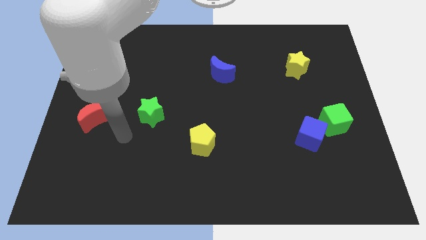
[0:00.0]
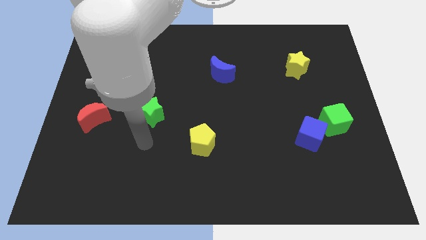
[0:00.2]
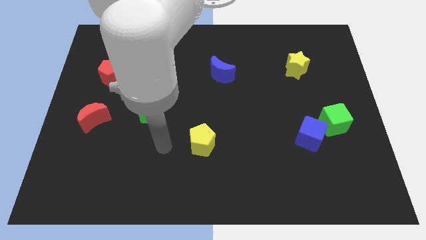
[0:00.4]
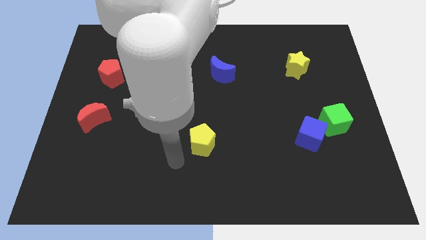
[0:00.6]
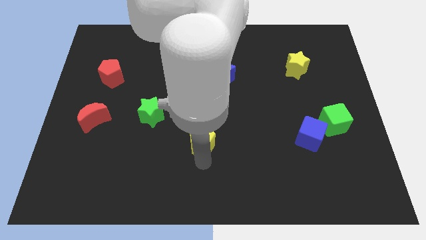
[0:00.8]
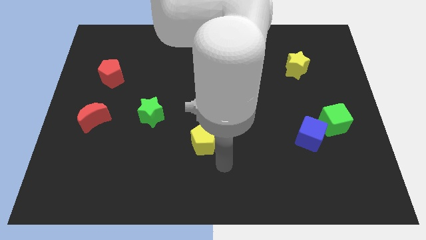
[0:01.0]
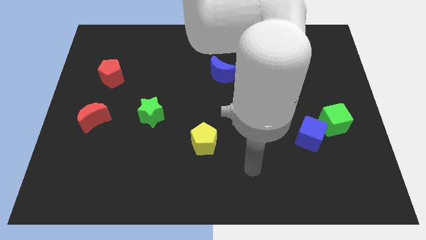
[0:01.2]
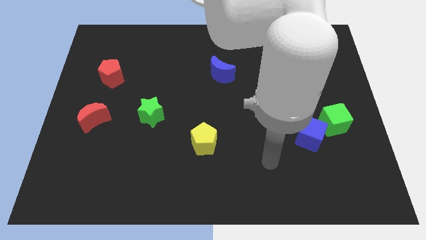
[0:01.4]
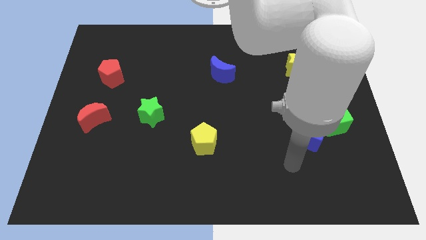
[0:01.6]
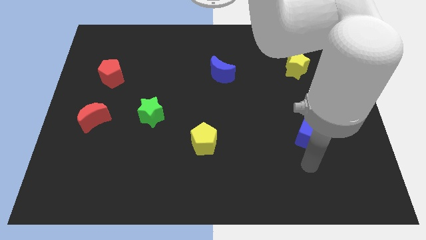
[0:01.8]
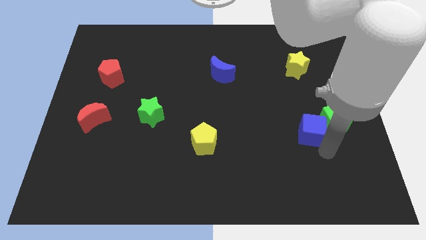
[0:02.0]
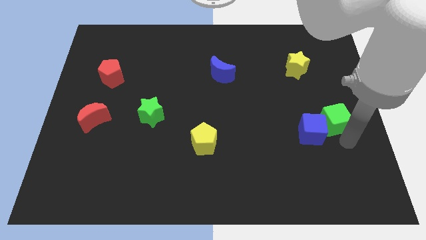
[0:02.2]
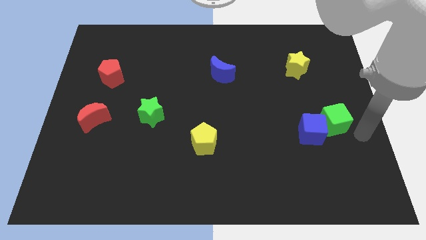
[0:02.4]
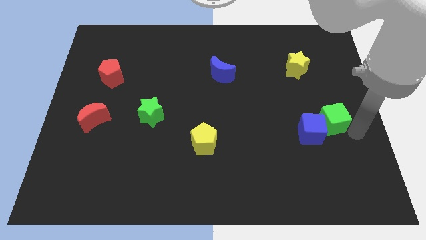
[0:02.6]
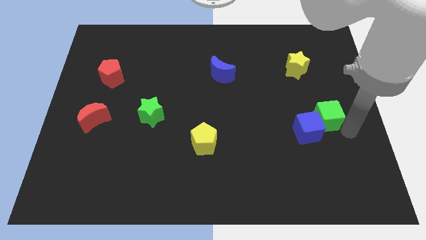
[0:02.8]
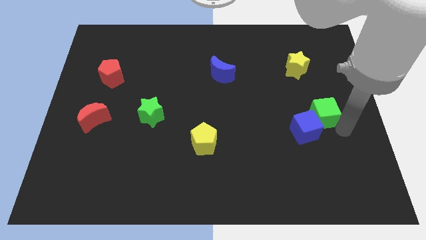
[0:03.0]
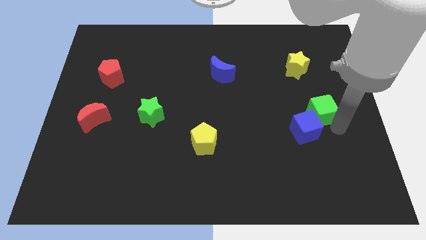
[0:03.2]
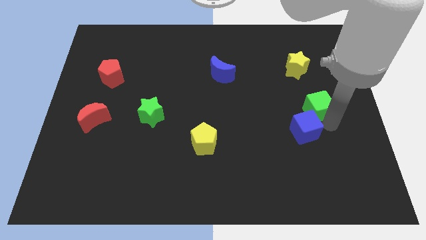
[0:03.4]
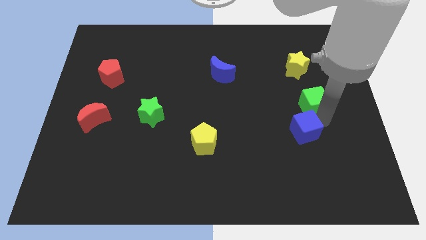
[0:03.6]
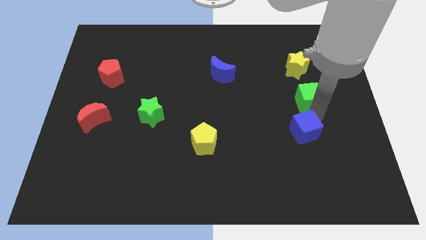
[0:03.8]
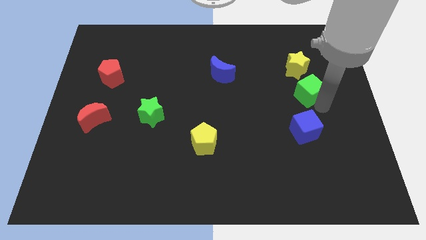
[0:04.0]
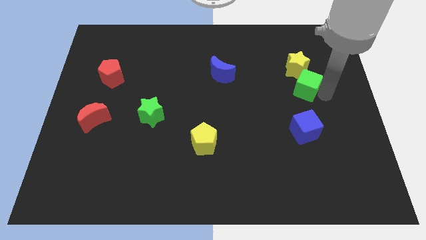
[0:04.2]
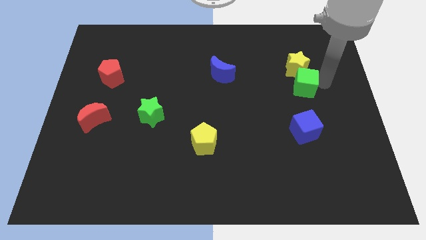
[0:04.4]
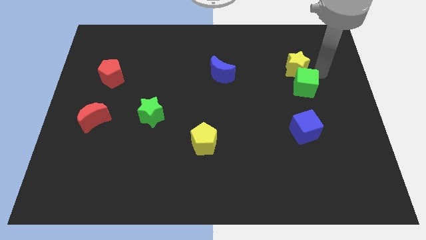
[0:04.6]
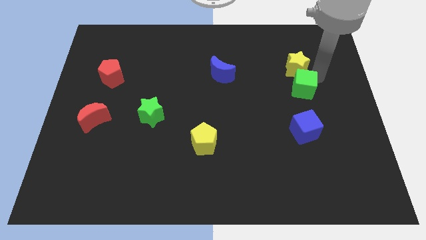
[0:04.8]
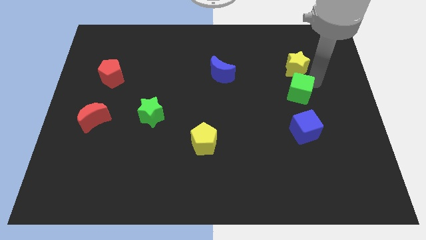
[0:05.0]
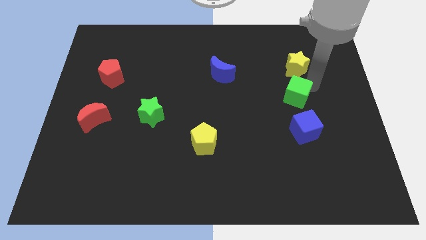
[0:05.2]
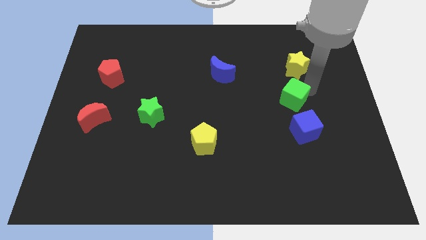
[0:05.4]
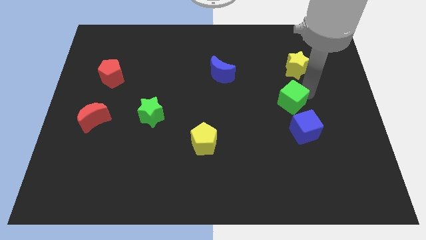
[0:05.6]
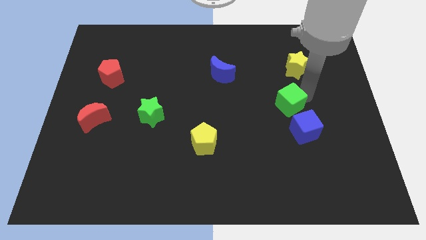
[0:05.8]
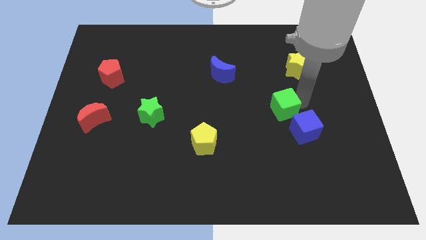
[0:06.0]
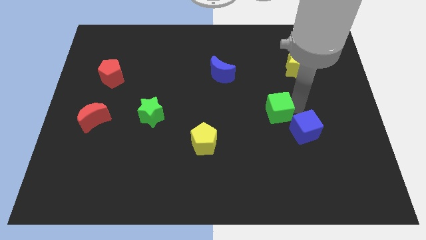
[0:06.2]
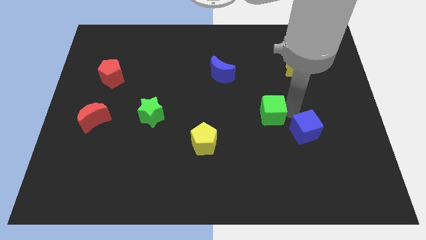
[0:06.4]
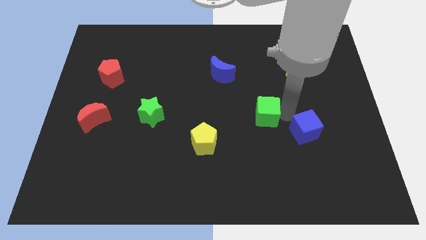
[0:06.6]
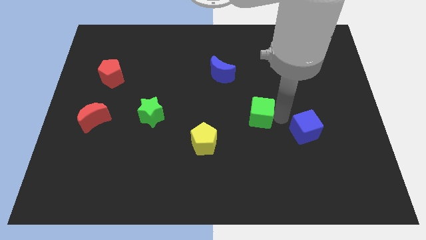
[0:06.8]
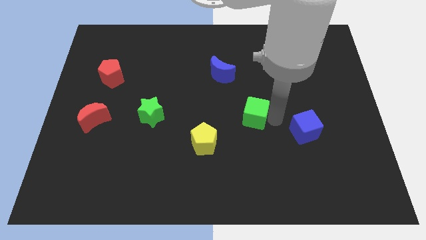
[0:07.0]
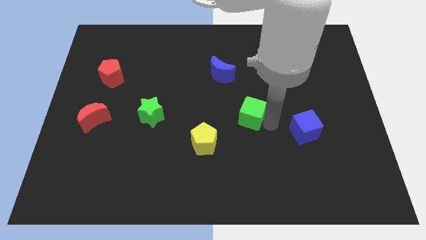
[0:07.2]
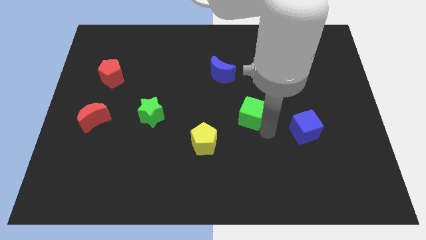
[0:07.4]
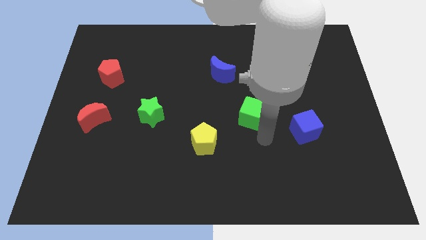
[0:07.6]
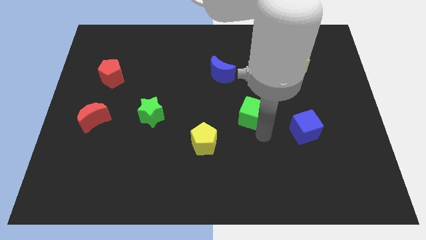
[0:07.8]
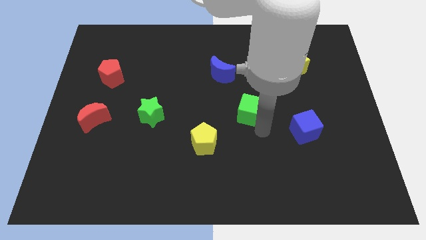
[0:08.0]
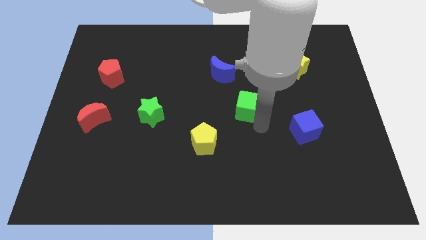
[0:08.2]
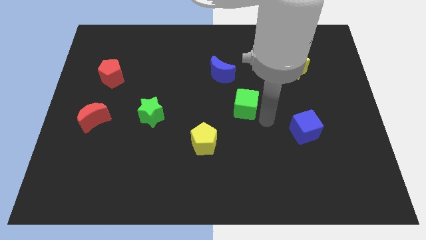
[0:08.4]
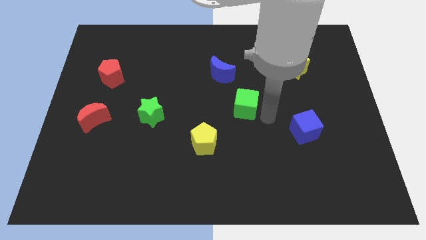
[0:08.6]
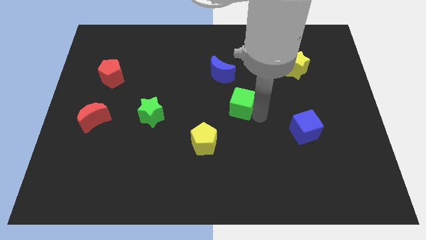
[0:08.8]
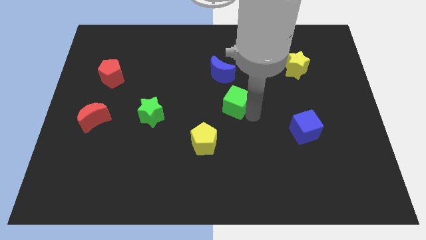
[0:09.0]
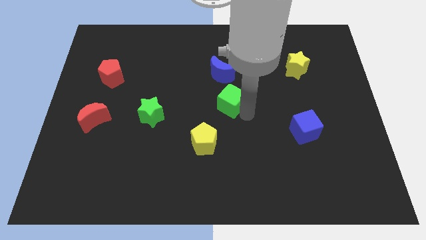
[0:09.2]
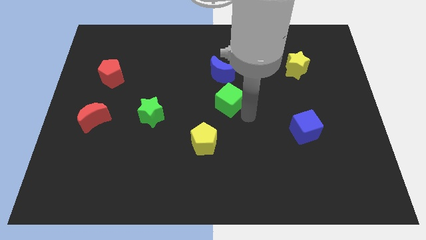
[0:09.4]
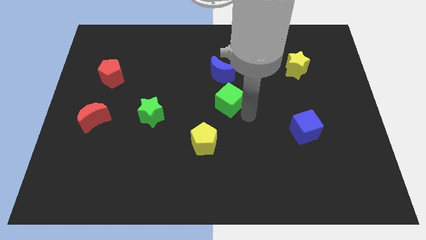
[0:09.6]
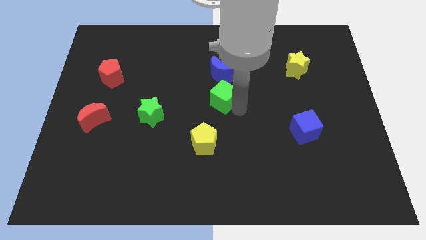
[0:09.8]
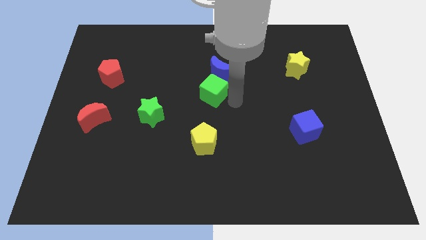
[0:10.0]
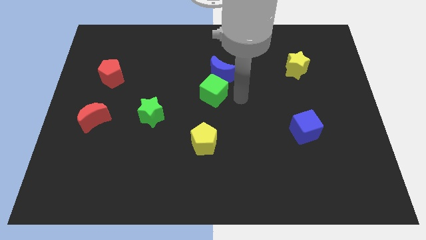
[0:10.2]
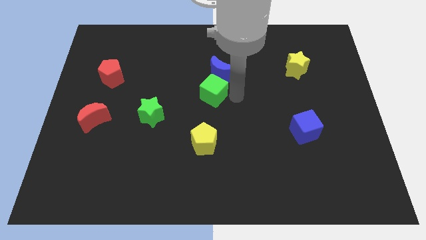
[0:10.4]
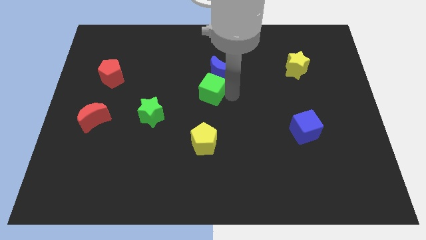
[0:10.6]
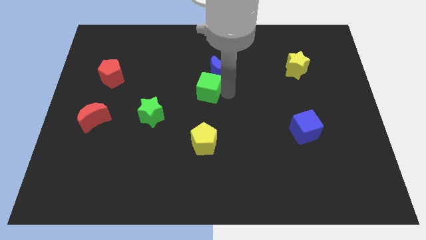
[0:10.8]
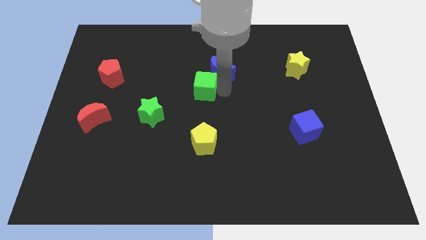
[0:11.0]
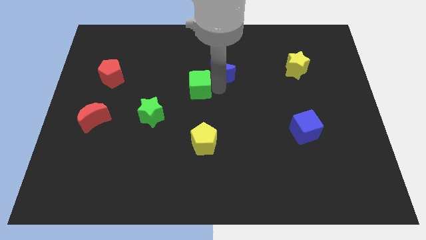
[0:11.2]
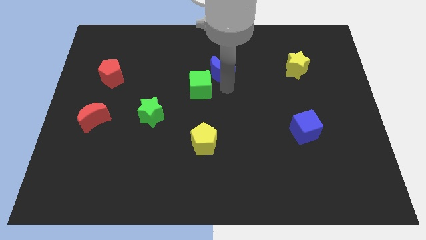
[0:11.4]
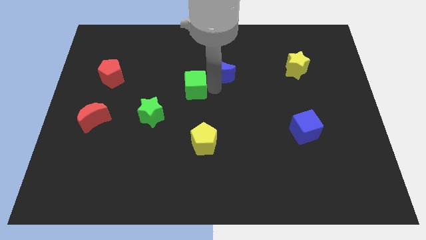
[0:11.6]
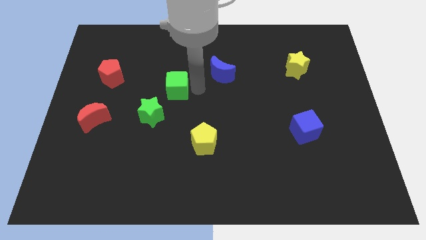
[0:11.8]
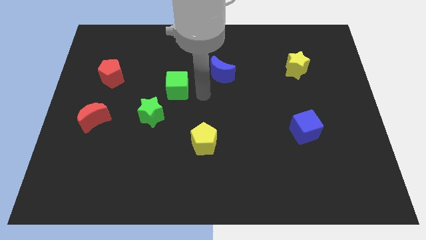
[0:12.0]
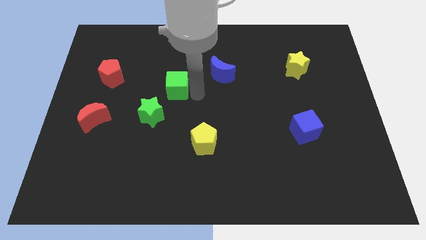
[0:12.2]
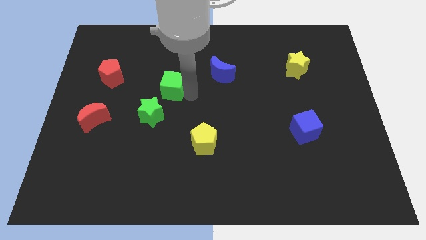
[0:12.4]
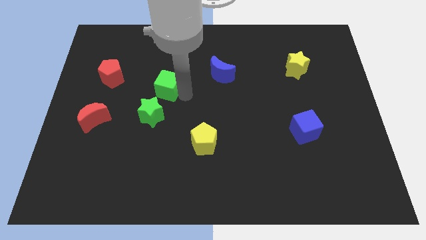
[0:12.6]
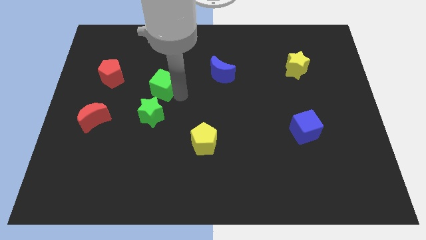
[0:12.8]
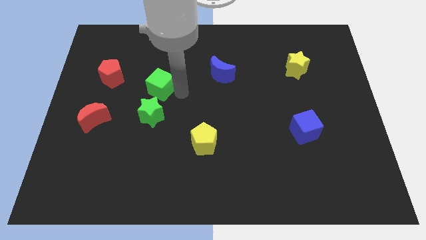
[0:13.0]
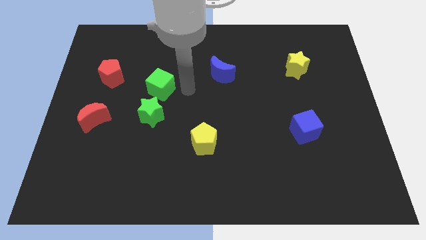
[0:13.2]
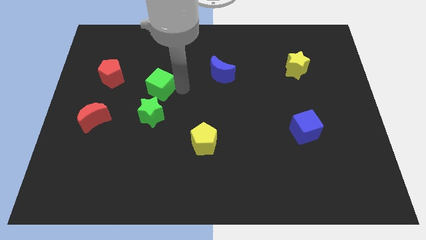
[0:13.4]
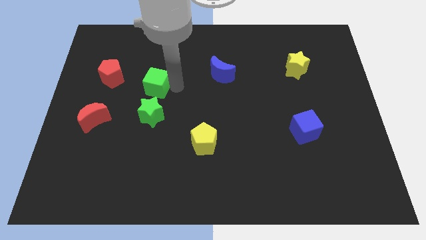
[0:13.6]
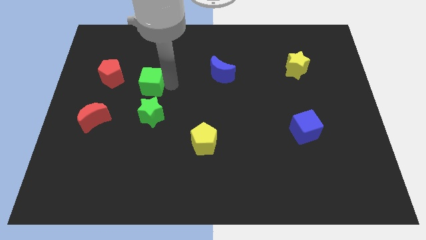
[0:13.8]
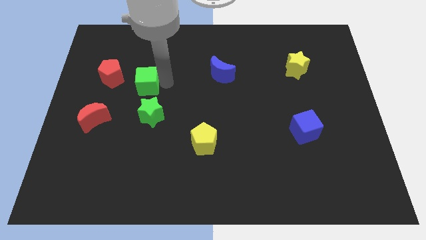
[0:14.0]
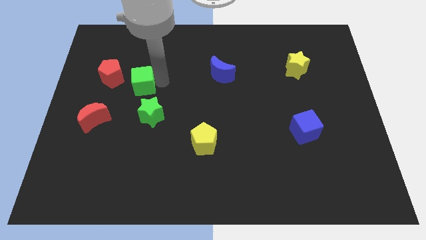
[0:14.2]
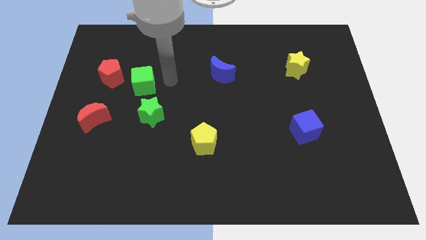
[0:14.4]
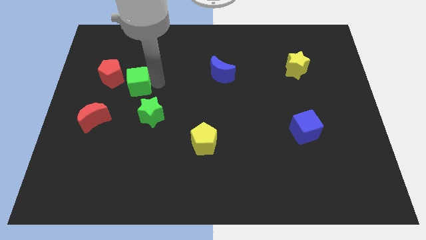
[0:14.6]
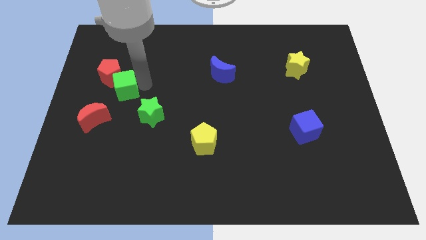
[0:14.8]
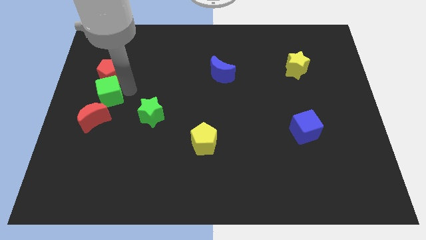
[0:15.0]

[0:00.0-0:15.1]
push the green cube to the left side of the board
